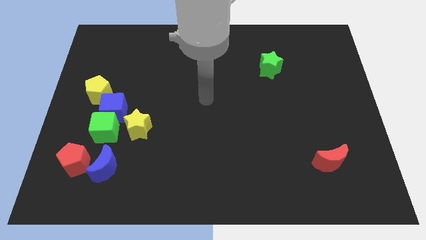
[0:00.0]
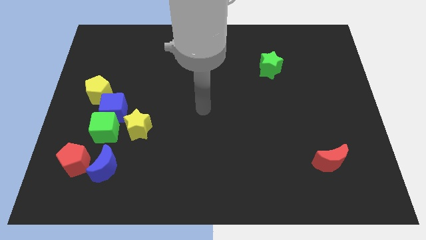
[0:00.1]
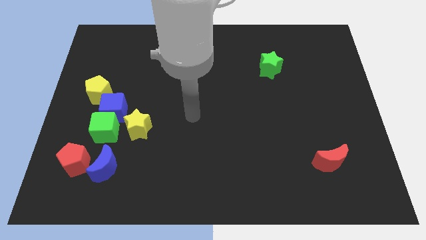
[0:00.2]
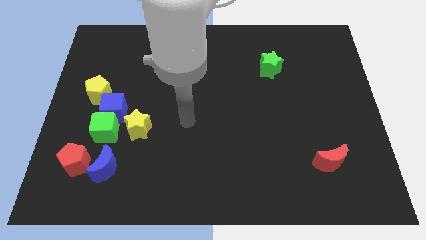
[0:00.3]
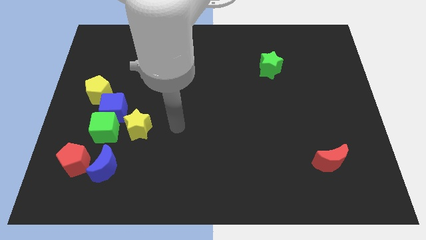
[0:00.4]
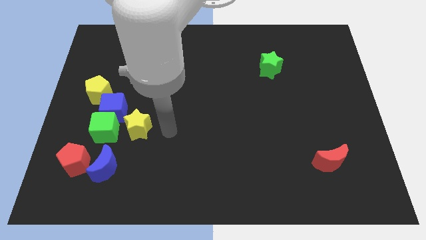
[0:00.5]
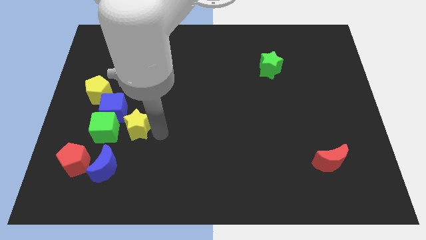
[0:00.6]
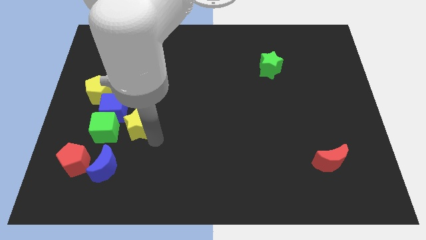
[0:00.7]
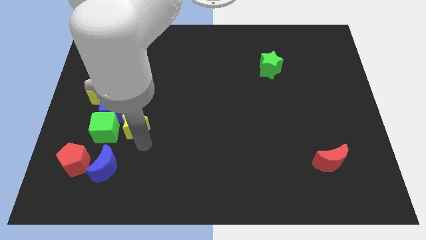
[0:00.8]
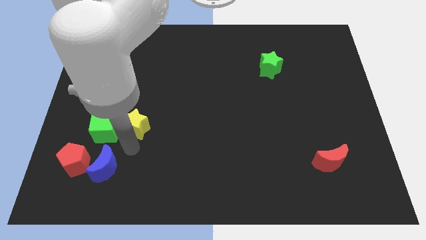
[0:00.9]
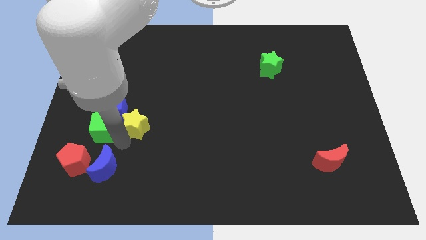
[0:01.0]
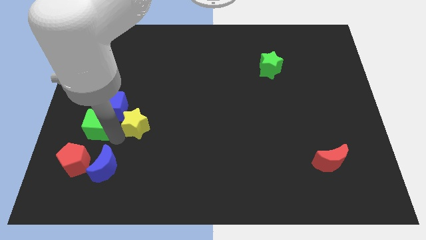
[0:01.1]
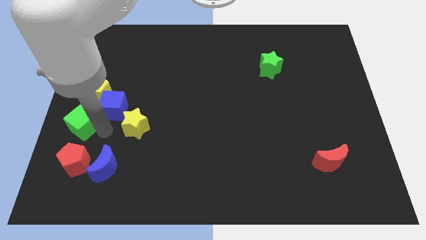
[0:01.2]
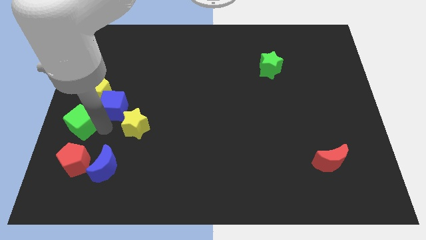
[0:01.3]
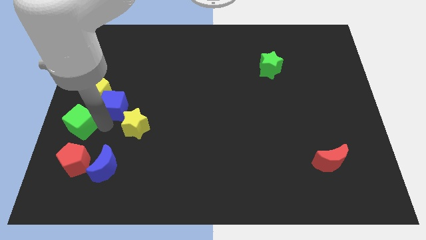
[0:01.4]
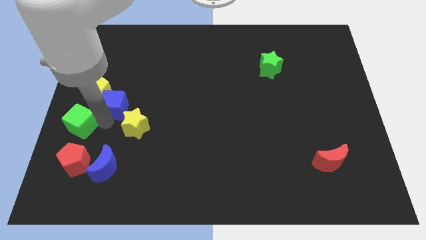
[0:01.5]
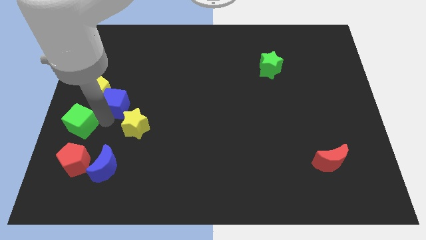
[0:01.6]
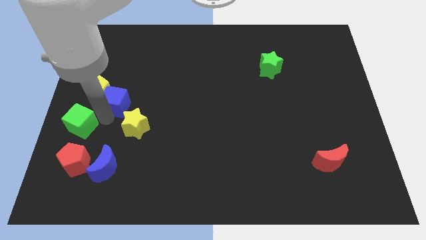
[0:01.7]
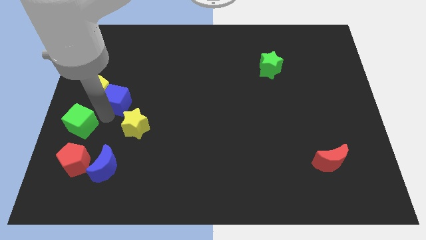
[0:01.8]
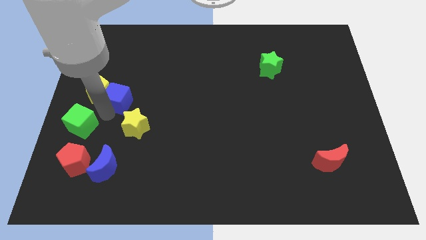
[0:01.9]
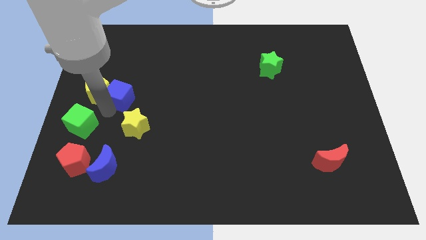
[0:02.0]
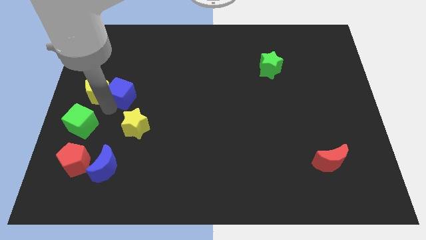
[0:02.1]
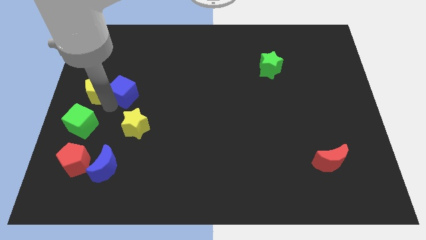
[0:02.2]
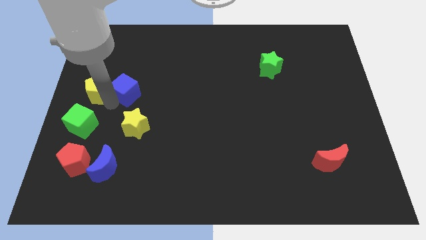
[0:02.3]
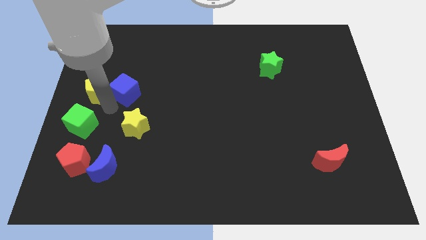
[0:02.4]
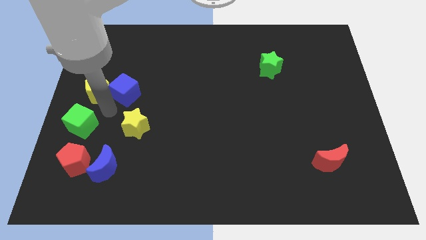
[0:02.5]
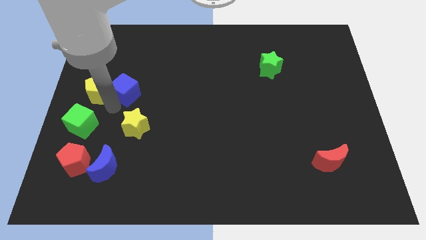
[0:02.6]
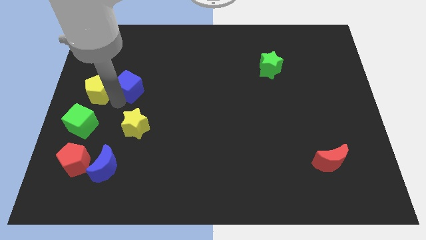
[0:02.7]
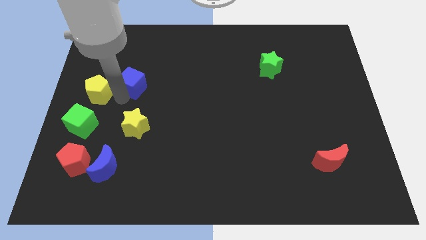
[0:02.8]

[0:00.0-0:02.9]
separate the blue cube from the group of blocks

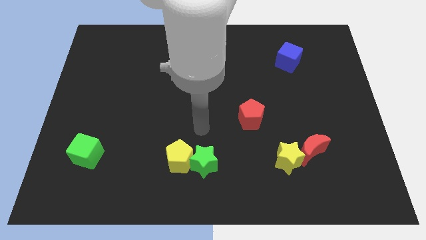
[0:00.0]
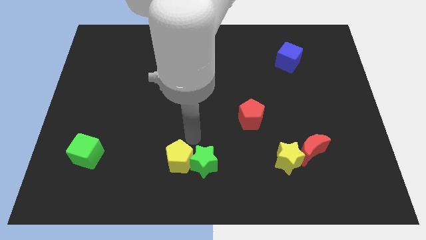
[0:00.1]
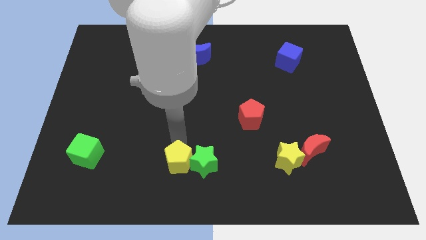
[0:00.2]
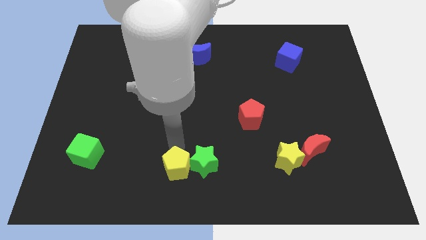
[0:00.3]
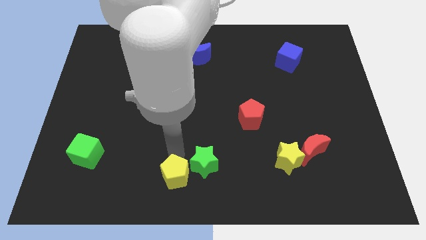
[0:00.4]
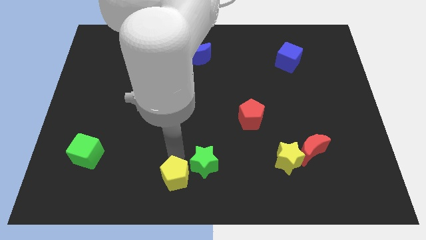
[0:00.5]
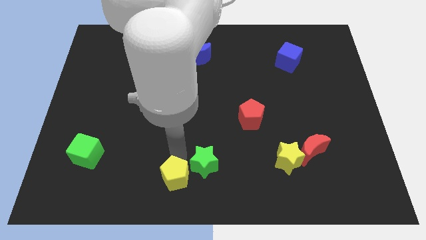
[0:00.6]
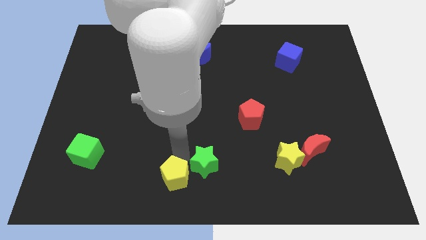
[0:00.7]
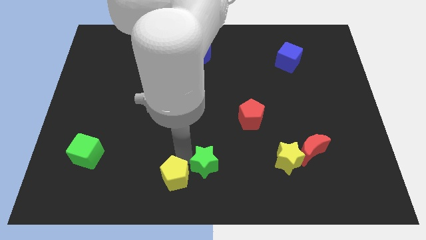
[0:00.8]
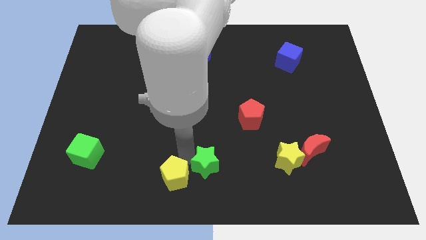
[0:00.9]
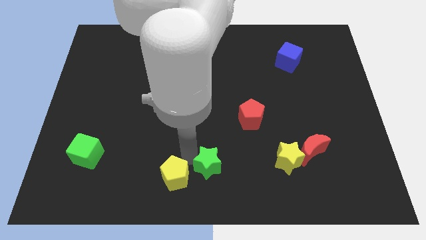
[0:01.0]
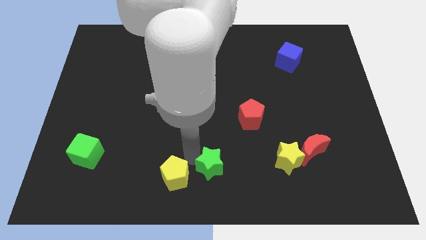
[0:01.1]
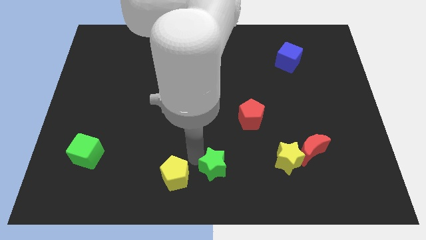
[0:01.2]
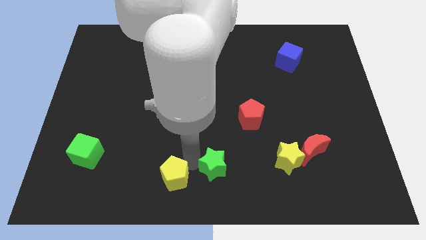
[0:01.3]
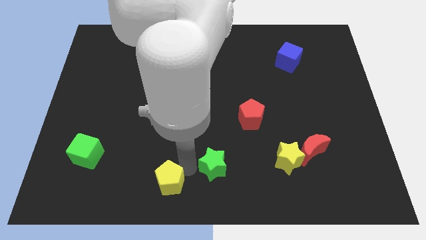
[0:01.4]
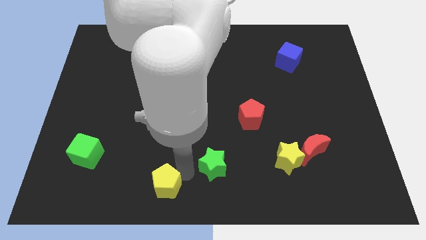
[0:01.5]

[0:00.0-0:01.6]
move the green star away from the yellow pentagon

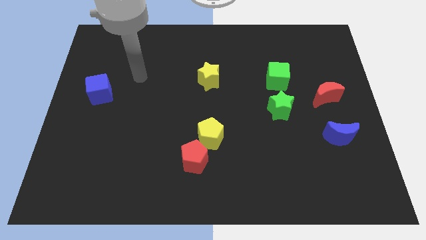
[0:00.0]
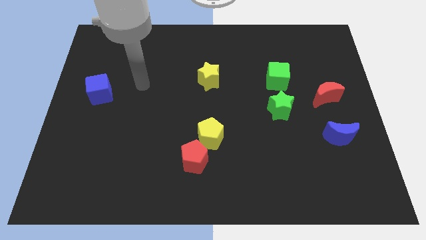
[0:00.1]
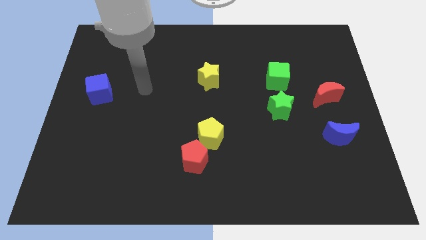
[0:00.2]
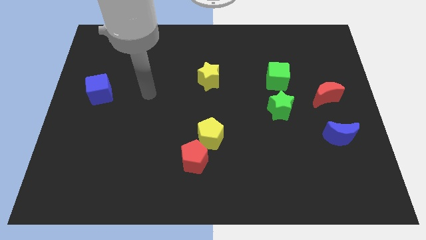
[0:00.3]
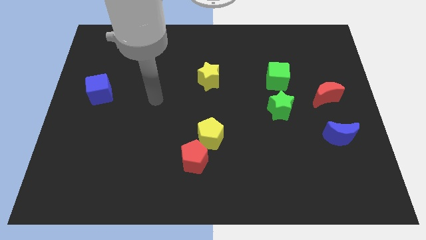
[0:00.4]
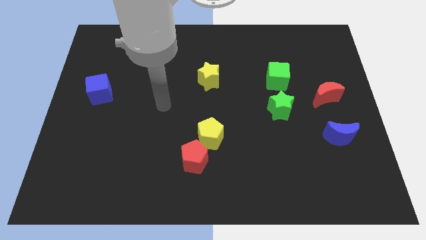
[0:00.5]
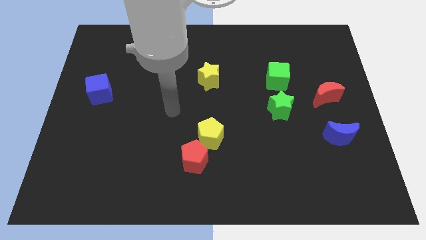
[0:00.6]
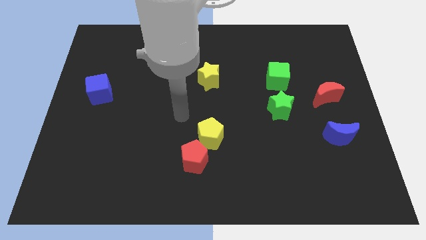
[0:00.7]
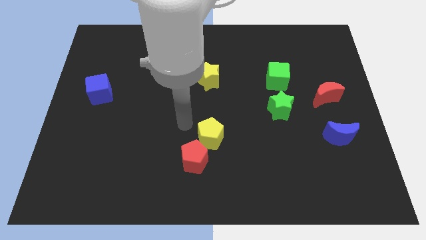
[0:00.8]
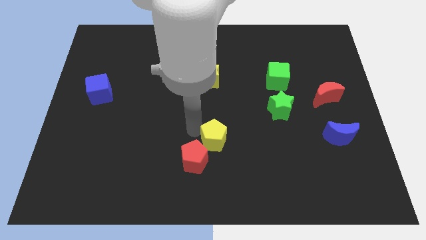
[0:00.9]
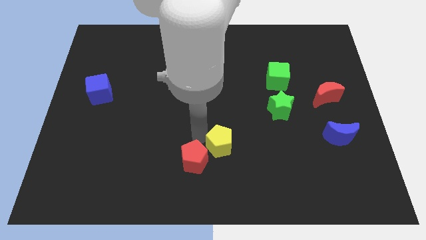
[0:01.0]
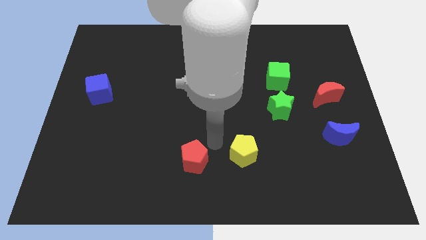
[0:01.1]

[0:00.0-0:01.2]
pull the red pentagon apart from the yellow pentagon

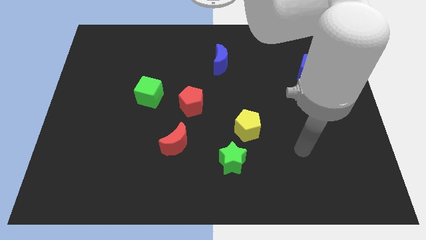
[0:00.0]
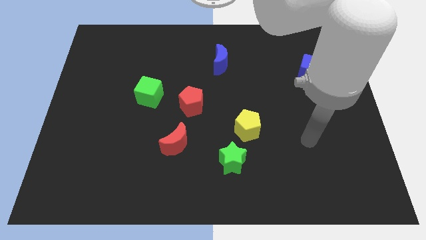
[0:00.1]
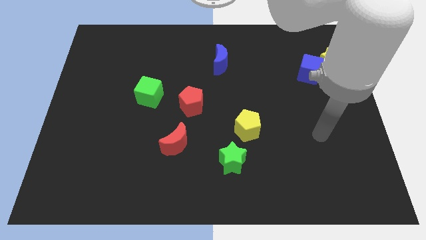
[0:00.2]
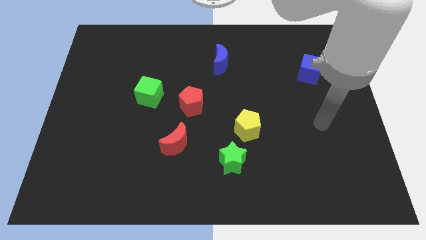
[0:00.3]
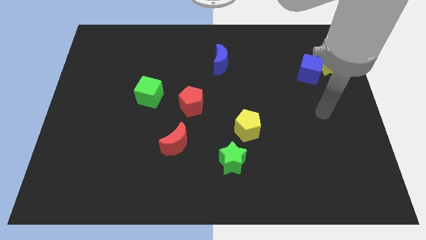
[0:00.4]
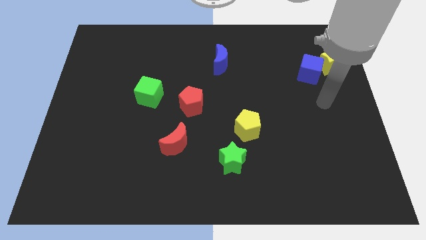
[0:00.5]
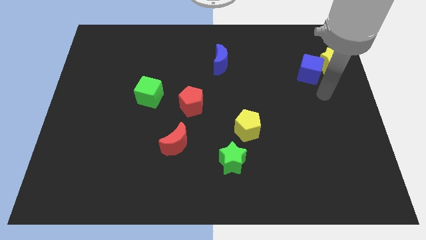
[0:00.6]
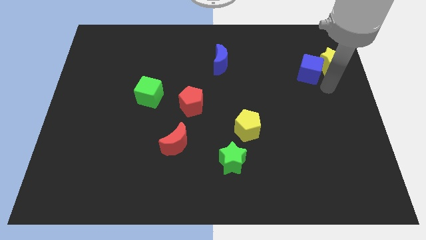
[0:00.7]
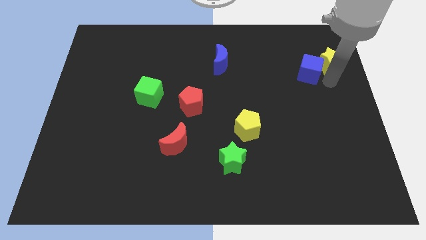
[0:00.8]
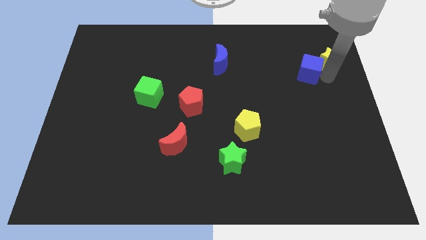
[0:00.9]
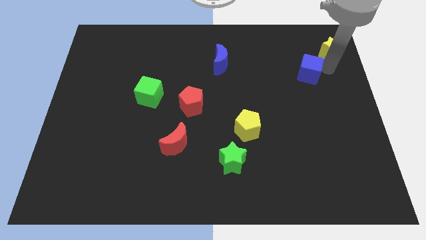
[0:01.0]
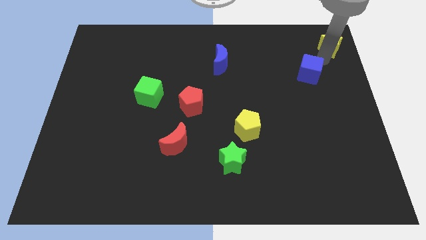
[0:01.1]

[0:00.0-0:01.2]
pull the blue cube apart from the yellow star

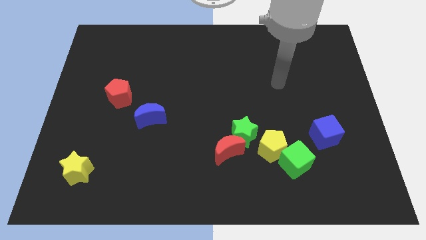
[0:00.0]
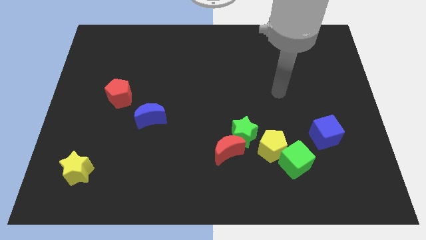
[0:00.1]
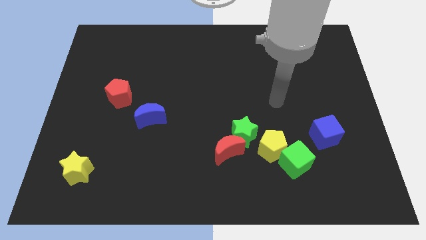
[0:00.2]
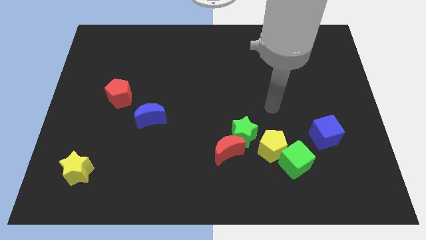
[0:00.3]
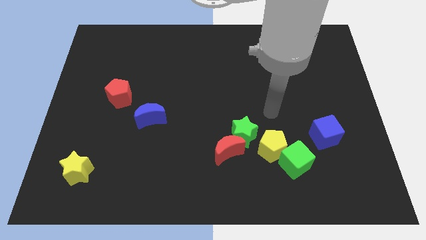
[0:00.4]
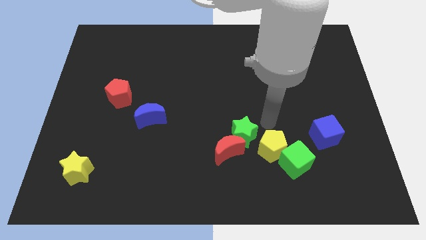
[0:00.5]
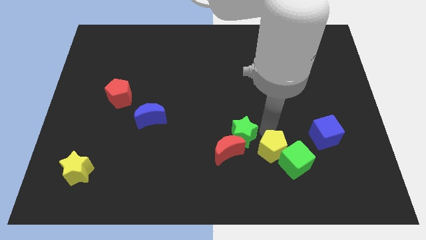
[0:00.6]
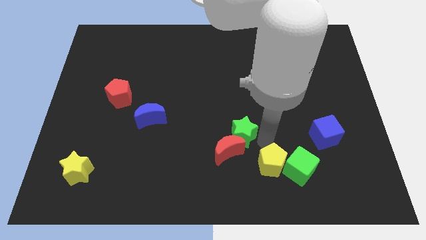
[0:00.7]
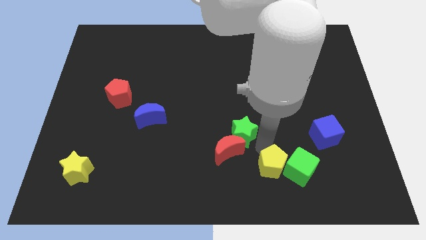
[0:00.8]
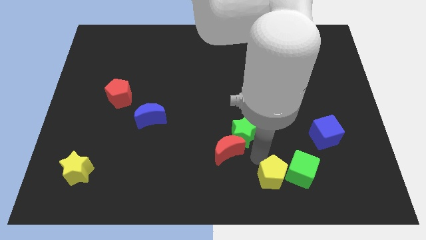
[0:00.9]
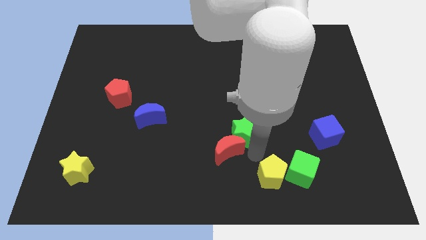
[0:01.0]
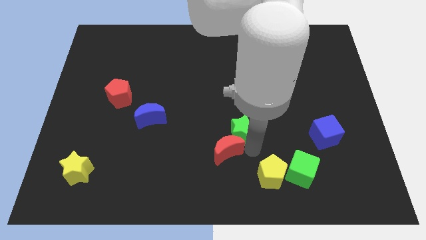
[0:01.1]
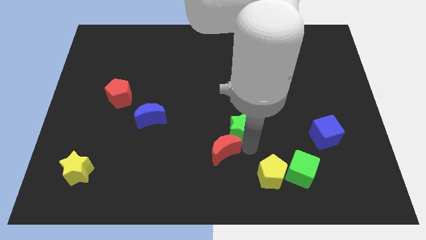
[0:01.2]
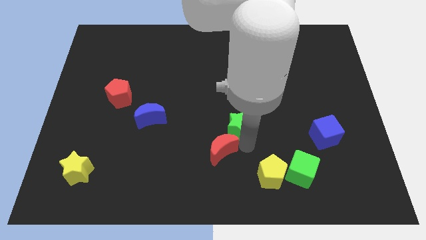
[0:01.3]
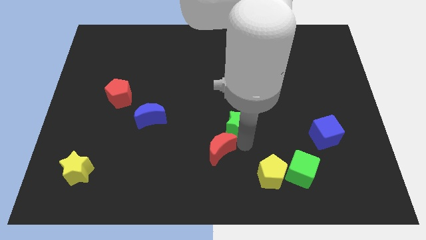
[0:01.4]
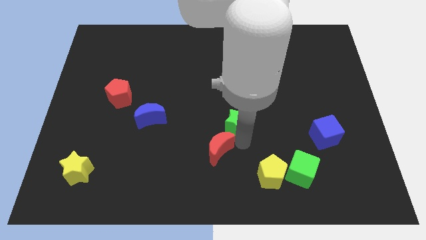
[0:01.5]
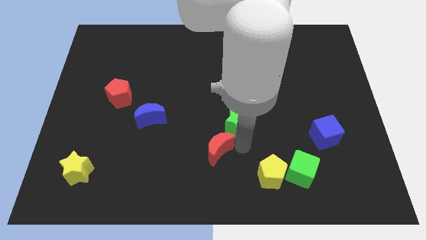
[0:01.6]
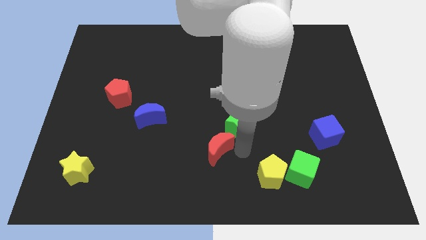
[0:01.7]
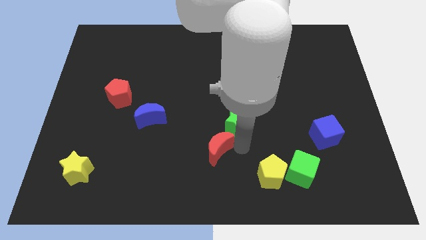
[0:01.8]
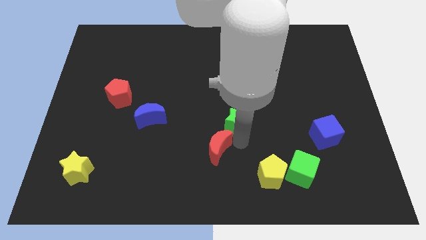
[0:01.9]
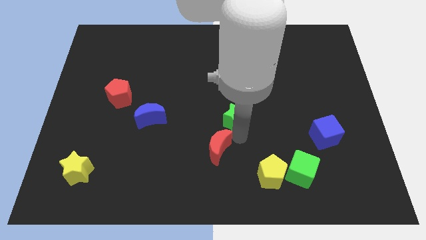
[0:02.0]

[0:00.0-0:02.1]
pull the green star apart from the red moon and yellow pentagon

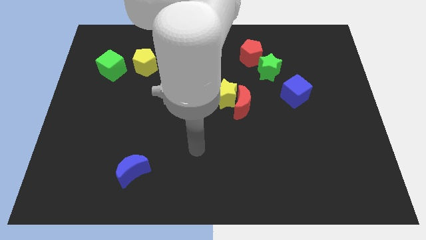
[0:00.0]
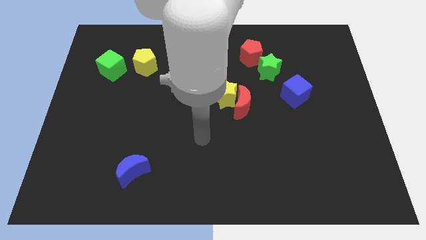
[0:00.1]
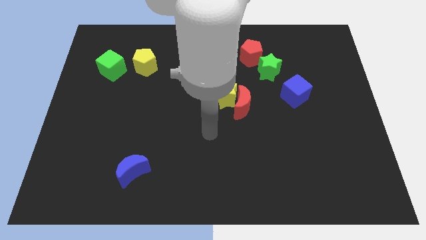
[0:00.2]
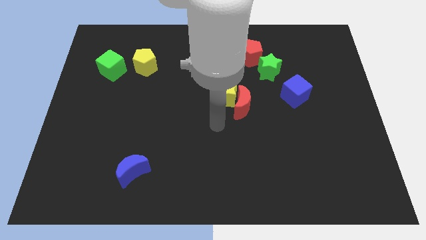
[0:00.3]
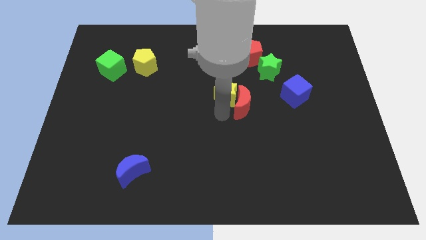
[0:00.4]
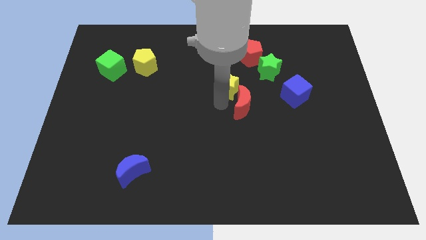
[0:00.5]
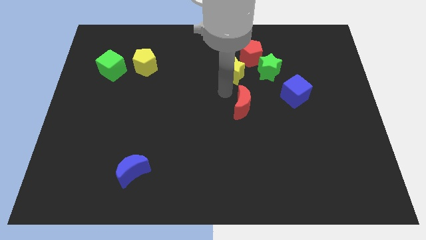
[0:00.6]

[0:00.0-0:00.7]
separate the red moon from the yellow star
